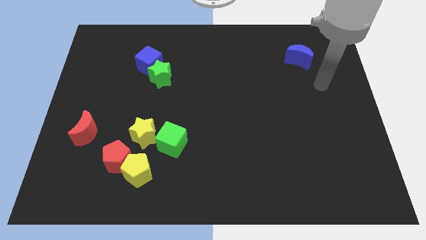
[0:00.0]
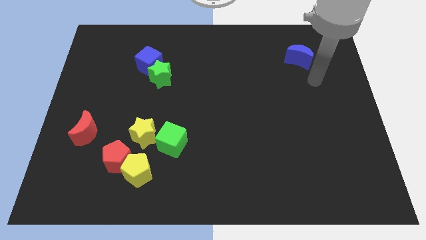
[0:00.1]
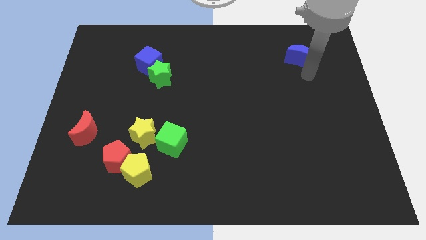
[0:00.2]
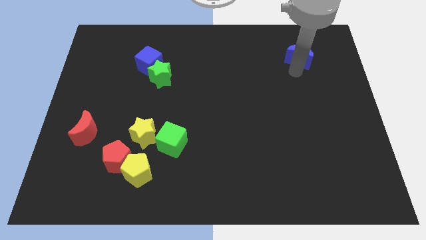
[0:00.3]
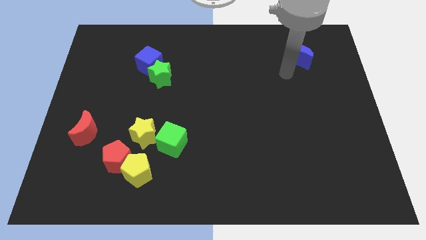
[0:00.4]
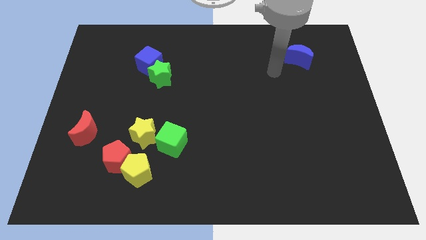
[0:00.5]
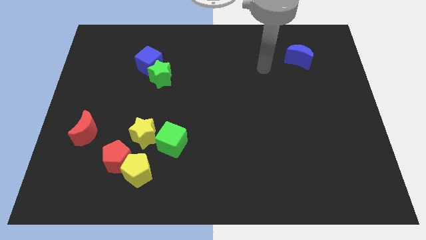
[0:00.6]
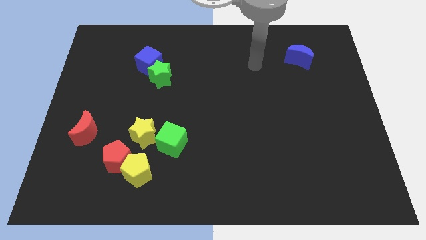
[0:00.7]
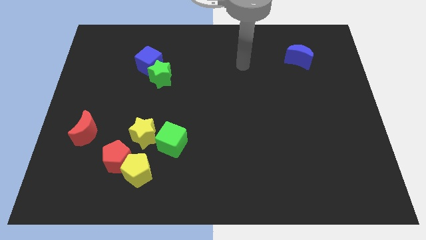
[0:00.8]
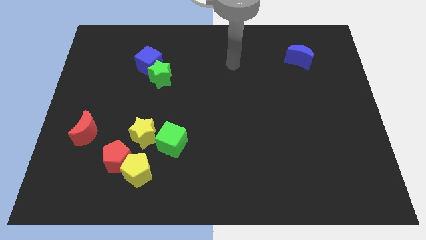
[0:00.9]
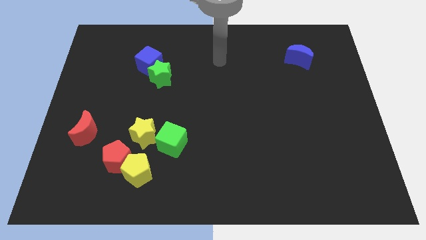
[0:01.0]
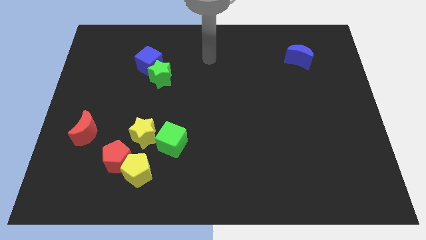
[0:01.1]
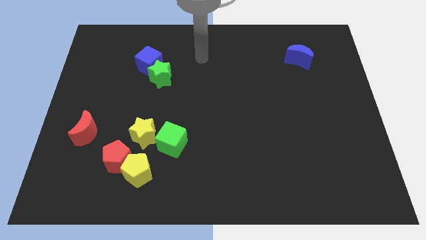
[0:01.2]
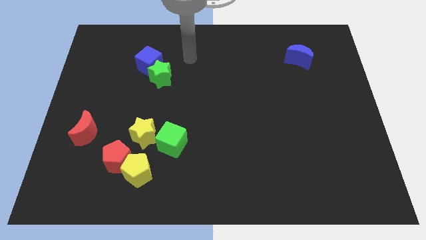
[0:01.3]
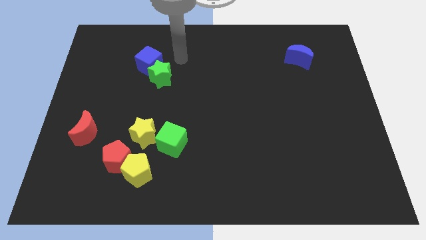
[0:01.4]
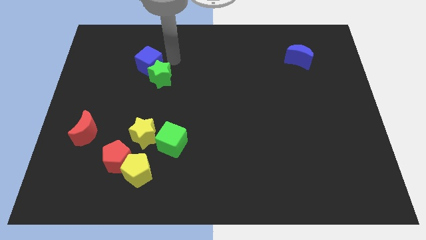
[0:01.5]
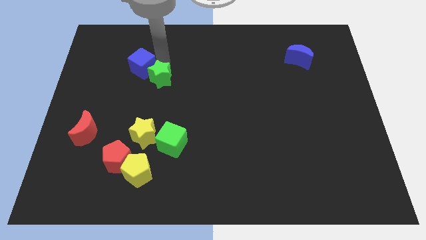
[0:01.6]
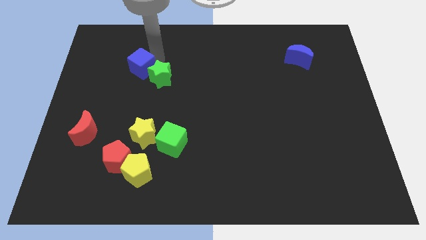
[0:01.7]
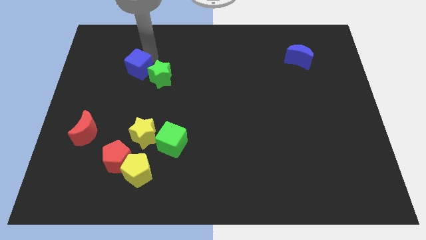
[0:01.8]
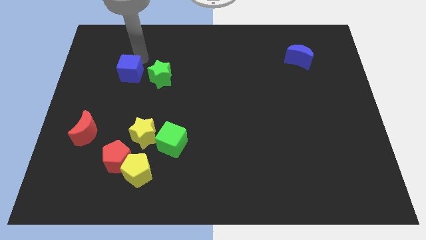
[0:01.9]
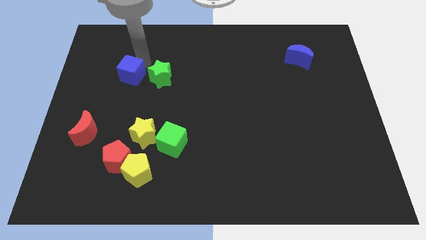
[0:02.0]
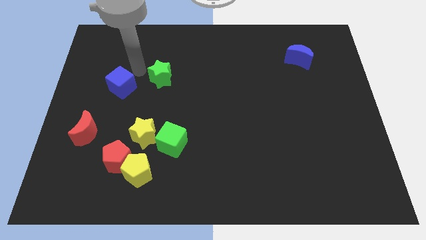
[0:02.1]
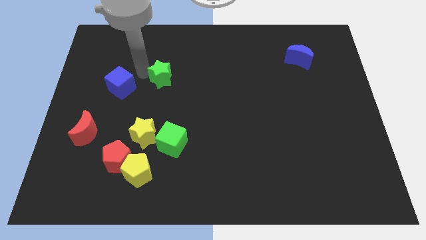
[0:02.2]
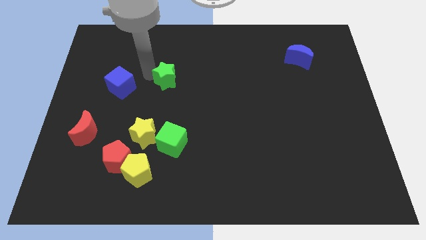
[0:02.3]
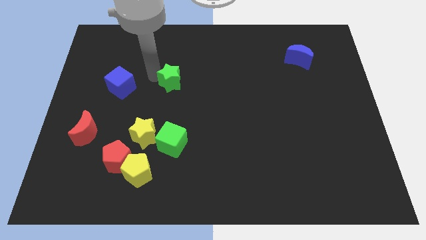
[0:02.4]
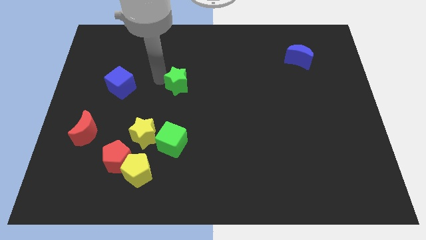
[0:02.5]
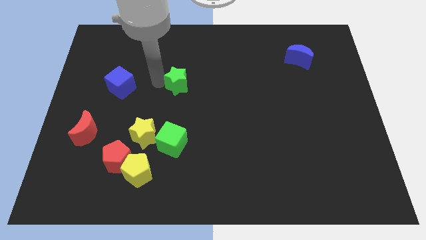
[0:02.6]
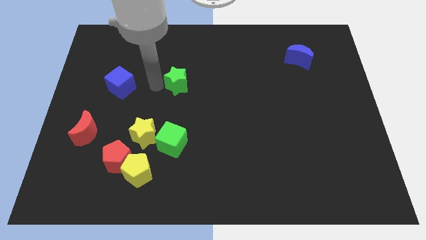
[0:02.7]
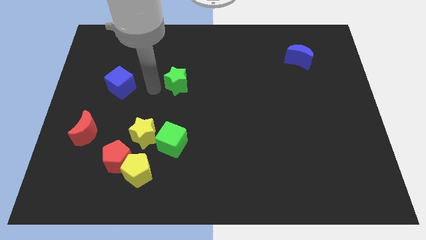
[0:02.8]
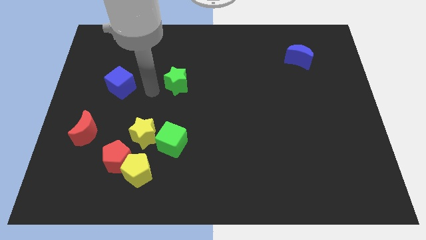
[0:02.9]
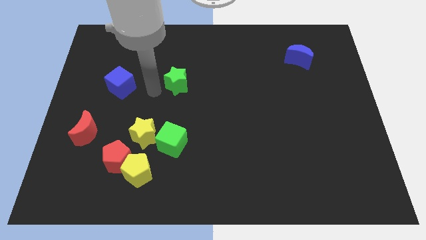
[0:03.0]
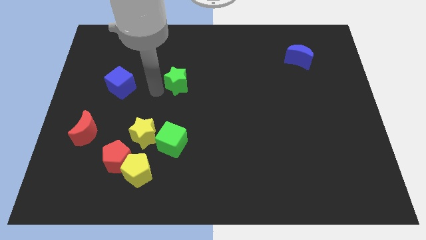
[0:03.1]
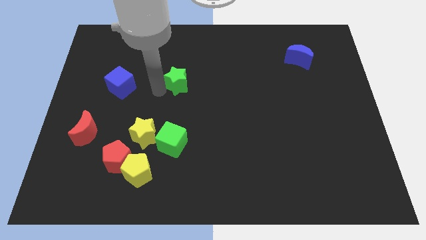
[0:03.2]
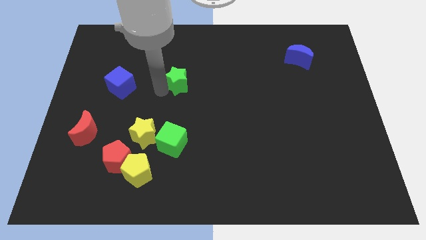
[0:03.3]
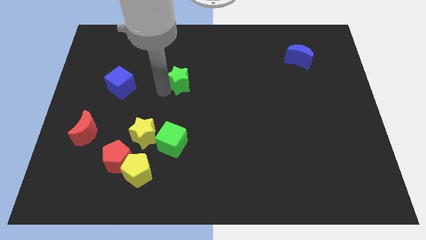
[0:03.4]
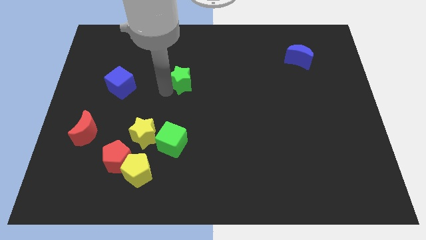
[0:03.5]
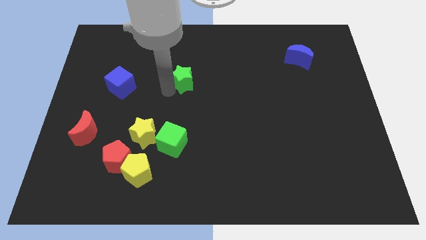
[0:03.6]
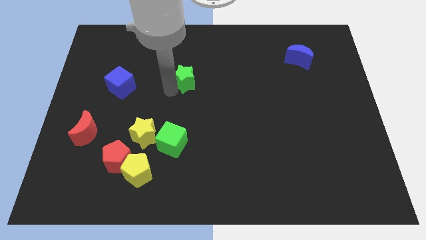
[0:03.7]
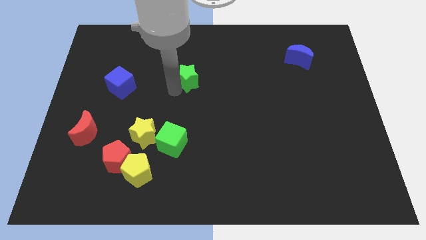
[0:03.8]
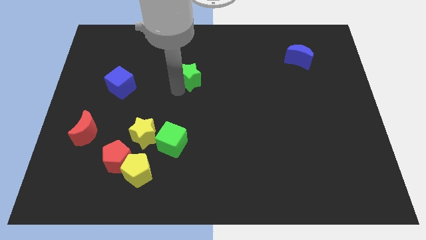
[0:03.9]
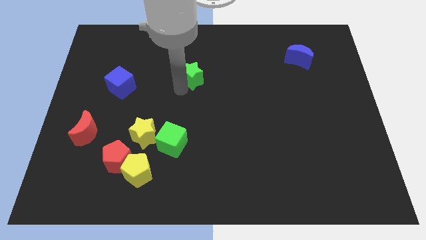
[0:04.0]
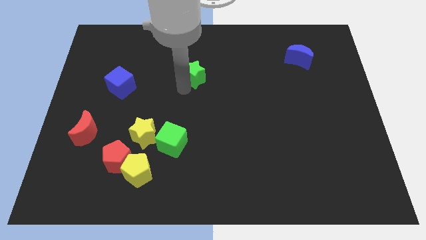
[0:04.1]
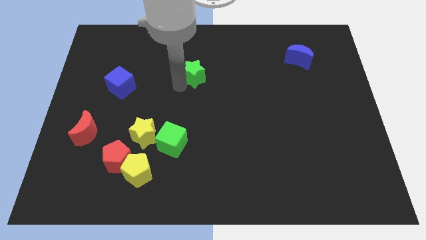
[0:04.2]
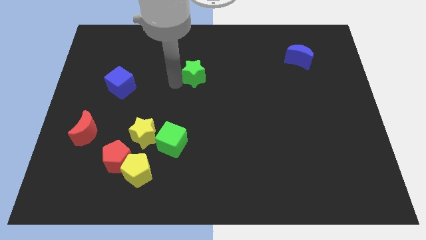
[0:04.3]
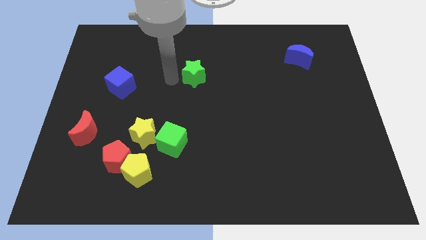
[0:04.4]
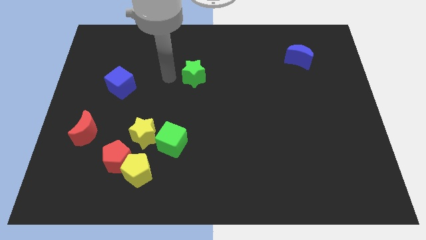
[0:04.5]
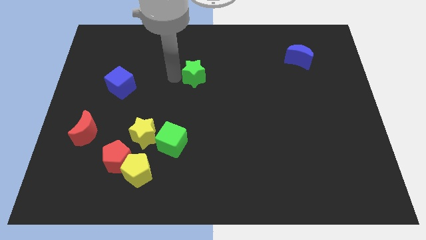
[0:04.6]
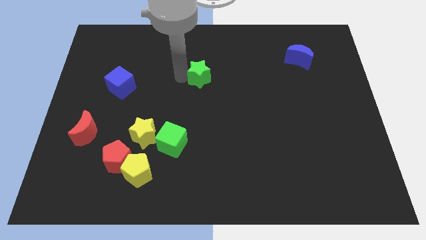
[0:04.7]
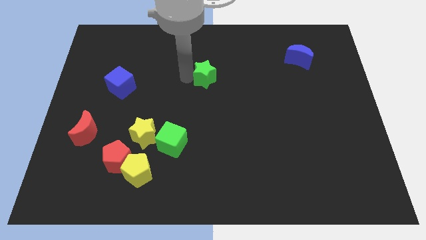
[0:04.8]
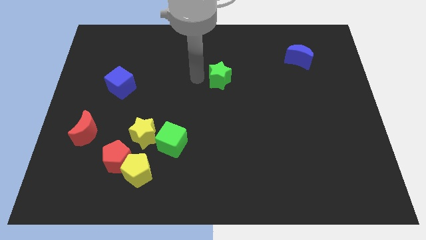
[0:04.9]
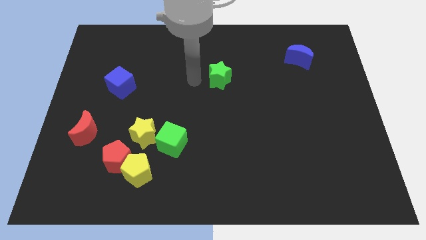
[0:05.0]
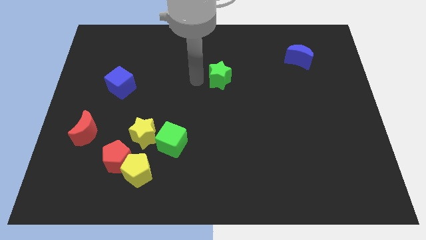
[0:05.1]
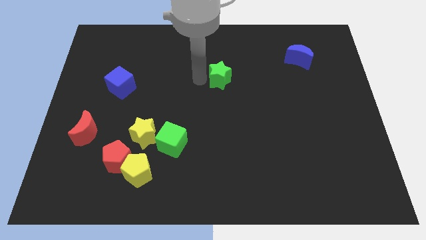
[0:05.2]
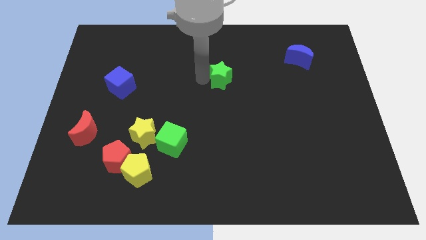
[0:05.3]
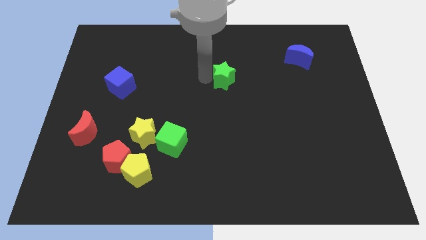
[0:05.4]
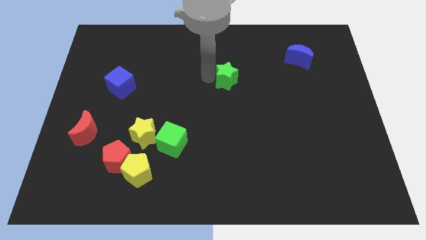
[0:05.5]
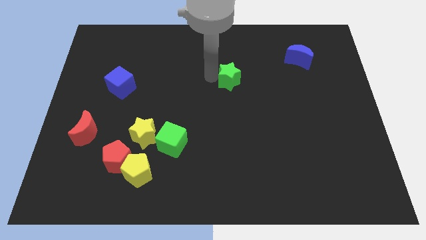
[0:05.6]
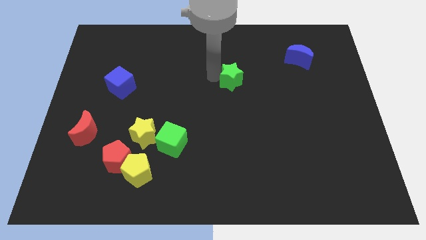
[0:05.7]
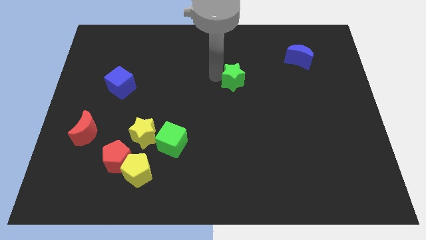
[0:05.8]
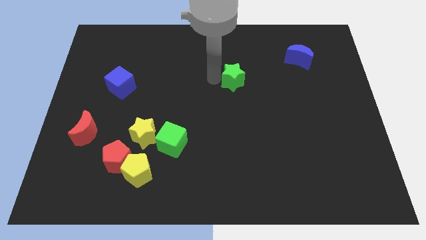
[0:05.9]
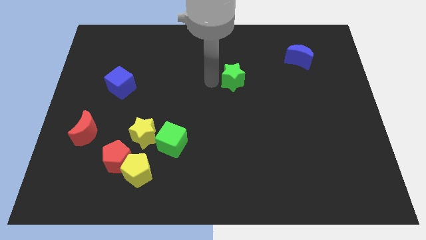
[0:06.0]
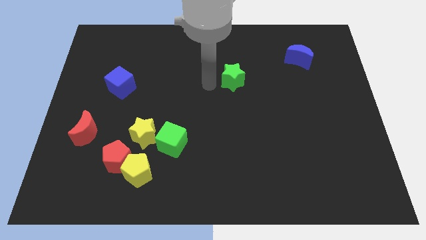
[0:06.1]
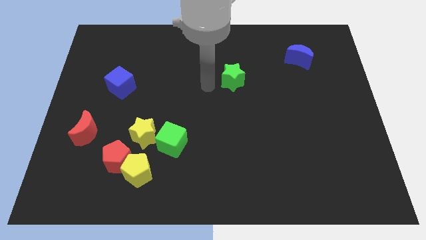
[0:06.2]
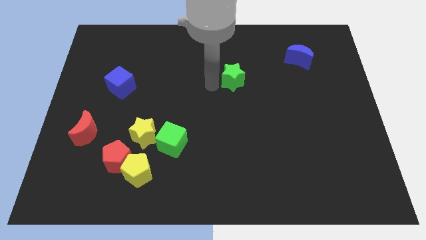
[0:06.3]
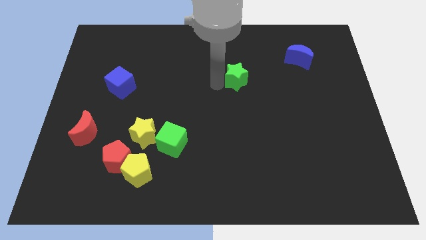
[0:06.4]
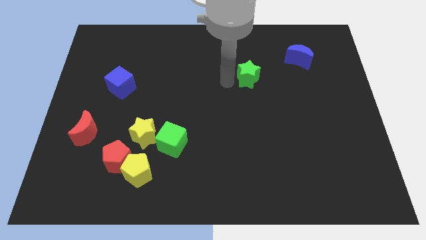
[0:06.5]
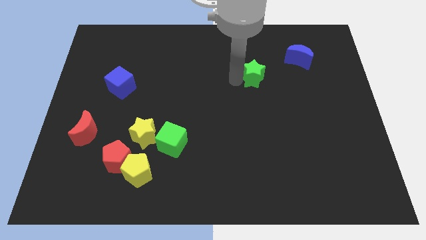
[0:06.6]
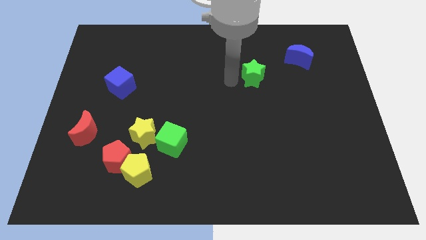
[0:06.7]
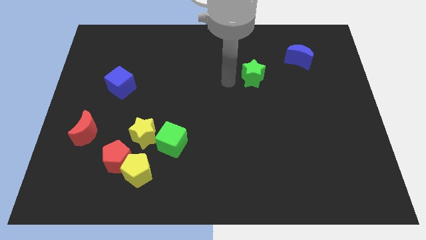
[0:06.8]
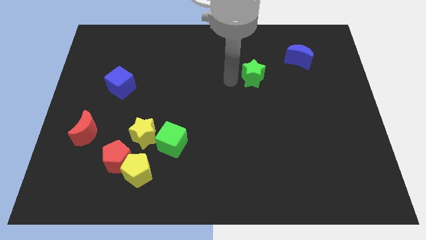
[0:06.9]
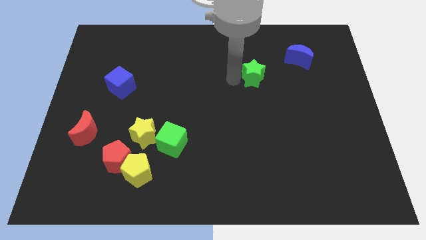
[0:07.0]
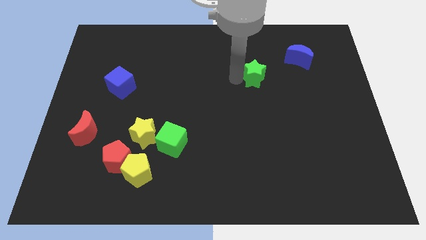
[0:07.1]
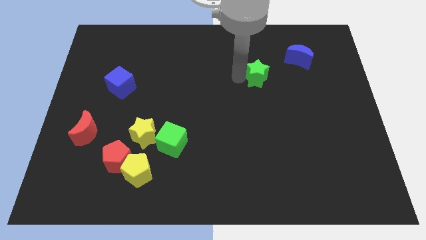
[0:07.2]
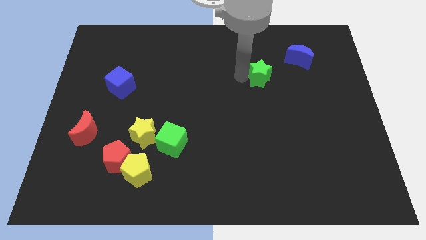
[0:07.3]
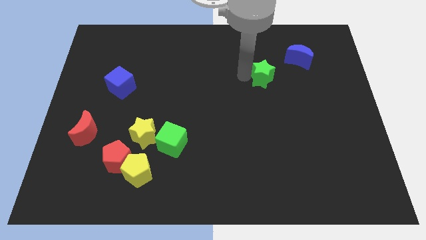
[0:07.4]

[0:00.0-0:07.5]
push the green star to the bottom left of the blue moon
